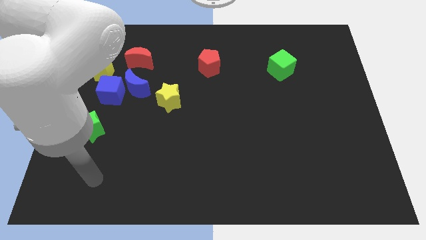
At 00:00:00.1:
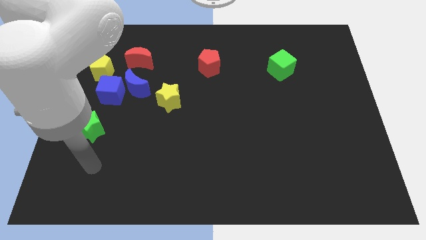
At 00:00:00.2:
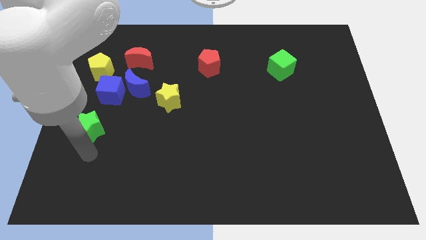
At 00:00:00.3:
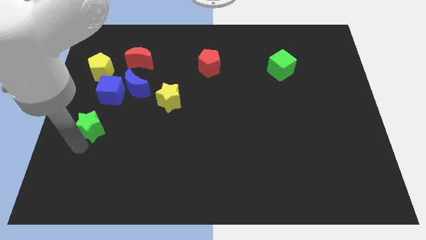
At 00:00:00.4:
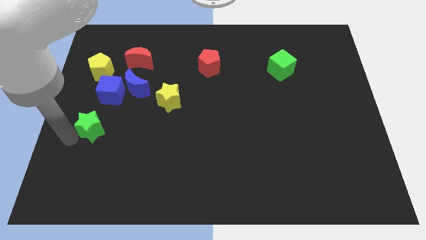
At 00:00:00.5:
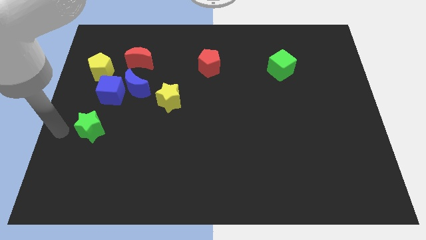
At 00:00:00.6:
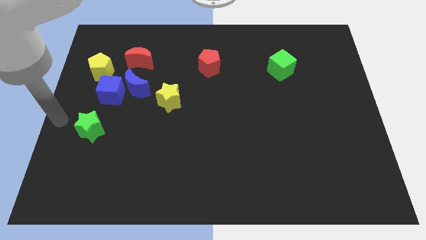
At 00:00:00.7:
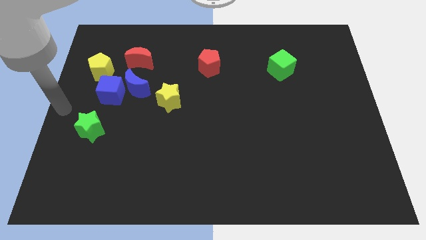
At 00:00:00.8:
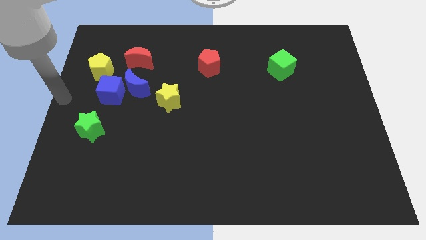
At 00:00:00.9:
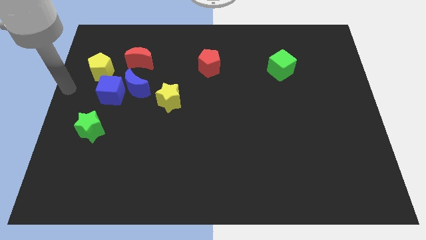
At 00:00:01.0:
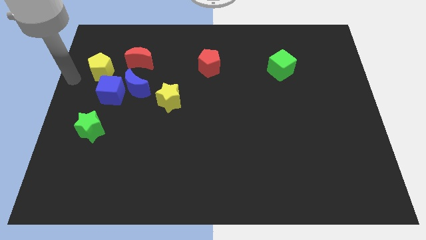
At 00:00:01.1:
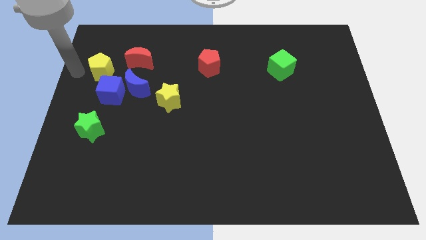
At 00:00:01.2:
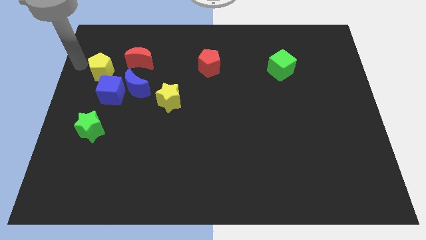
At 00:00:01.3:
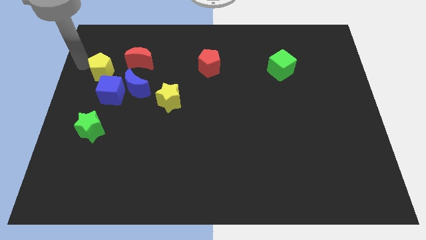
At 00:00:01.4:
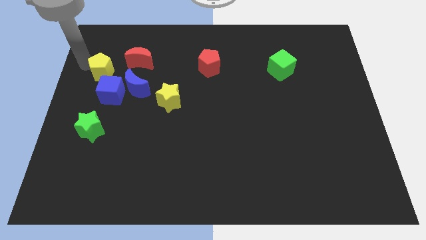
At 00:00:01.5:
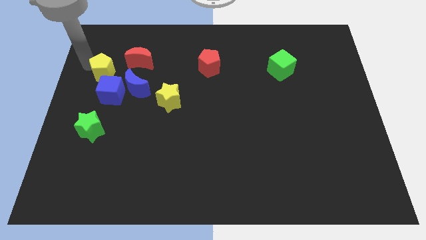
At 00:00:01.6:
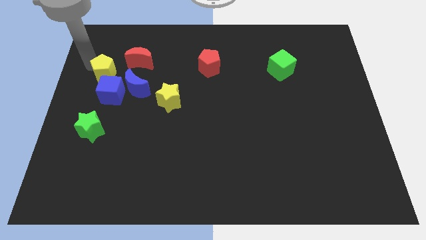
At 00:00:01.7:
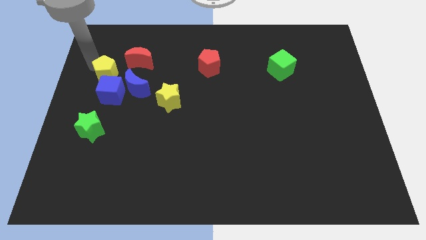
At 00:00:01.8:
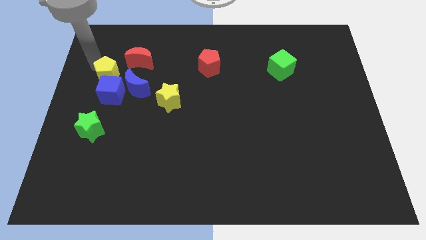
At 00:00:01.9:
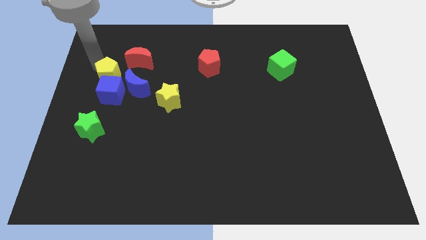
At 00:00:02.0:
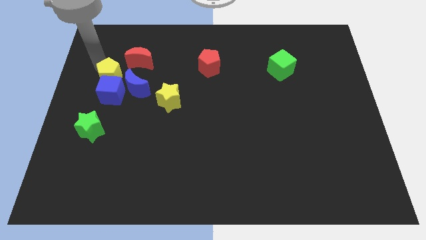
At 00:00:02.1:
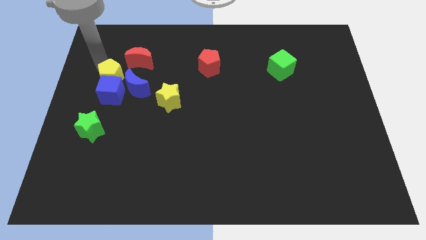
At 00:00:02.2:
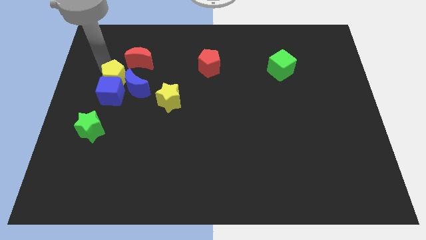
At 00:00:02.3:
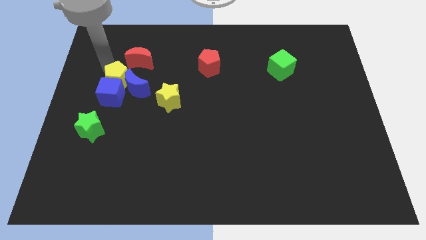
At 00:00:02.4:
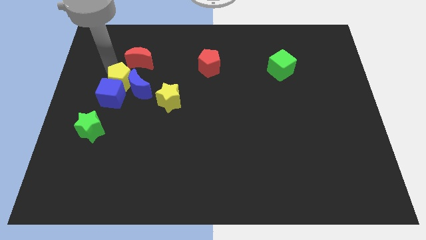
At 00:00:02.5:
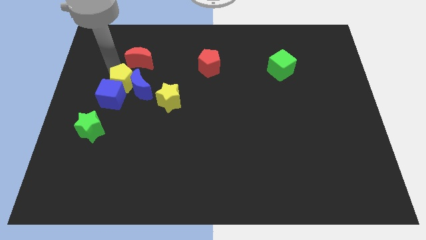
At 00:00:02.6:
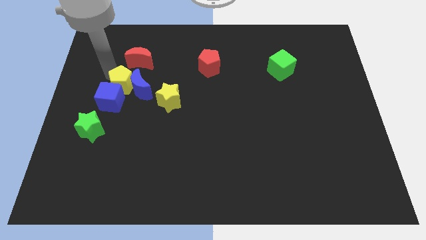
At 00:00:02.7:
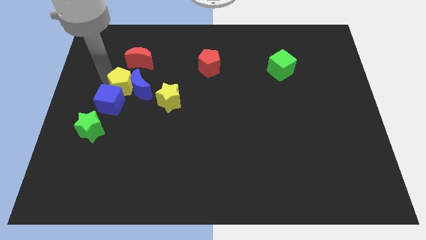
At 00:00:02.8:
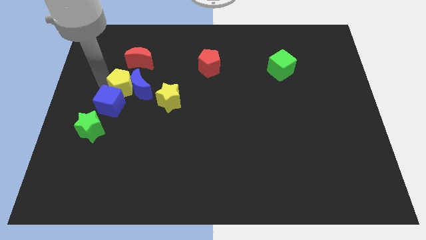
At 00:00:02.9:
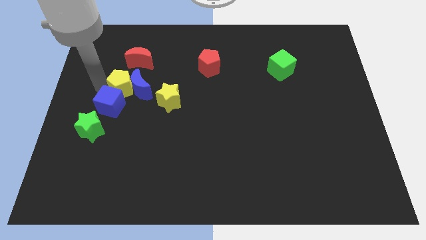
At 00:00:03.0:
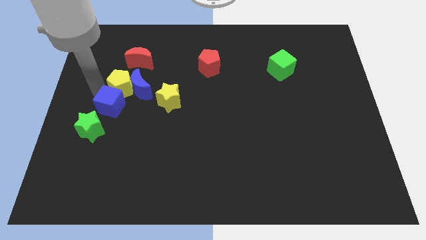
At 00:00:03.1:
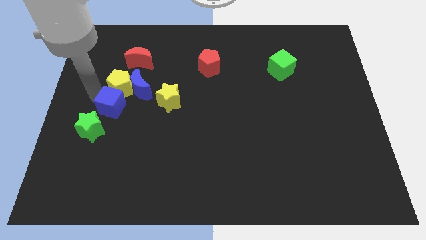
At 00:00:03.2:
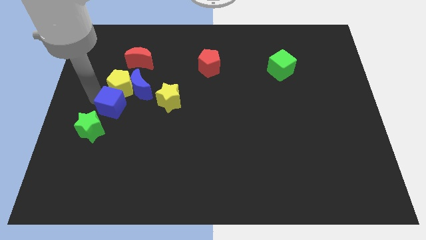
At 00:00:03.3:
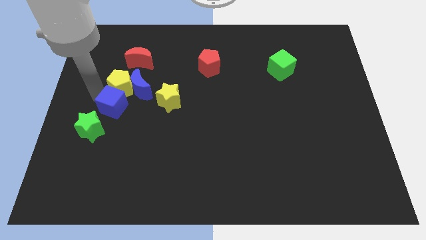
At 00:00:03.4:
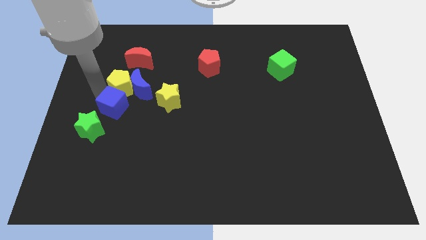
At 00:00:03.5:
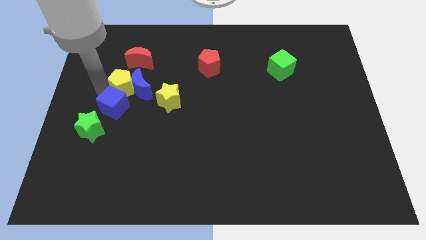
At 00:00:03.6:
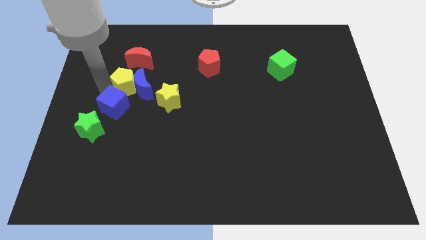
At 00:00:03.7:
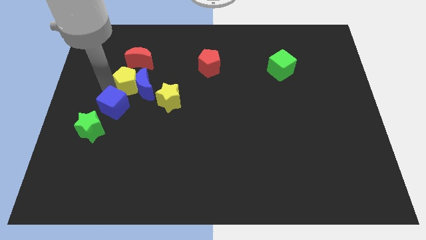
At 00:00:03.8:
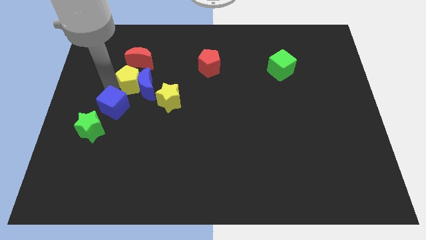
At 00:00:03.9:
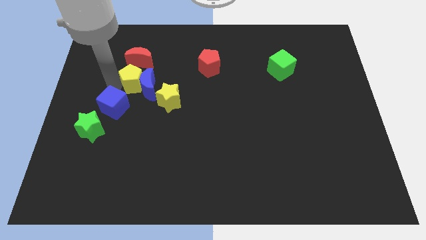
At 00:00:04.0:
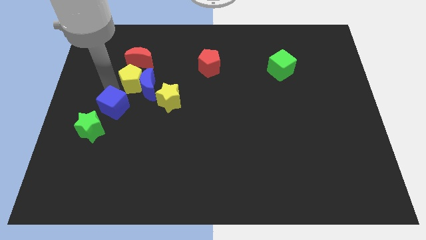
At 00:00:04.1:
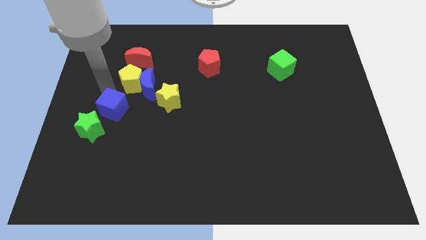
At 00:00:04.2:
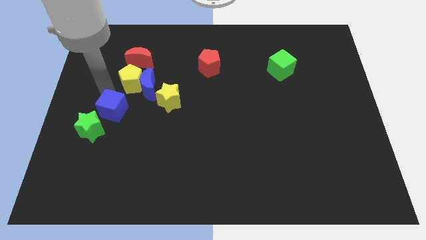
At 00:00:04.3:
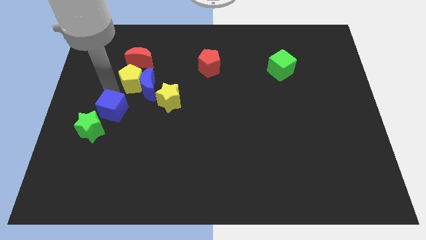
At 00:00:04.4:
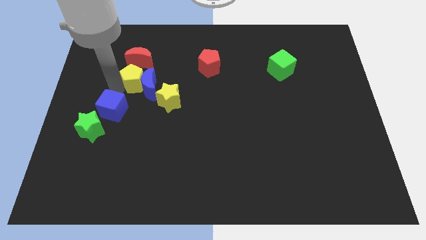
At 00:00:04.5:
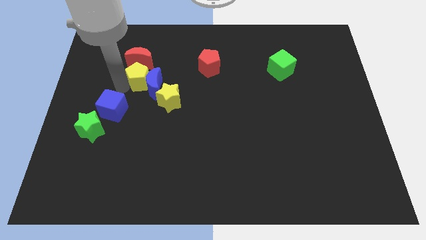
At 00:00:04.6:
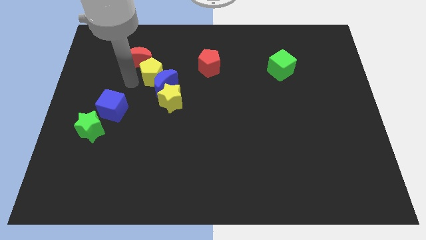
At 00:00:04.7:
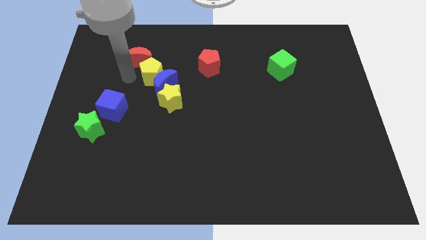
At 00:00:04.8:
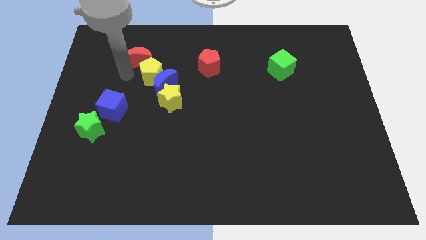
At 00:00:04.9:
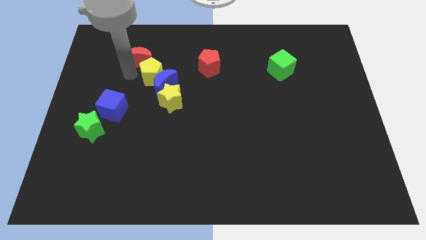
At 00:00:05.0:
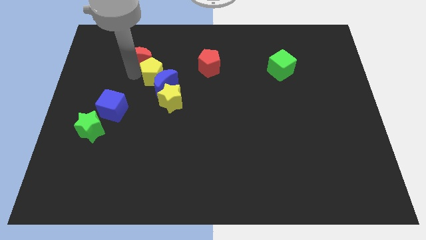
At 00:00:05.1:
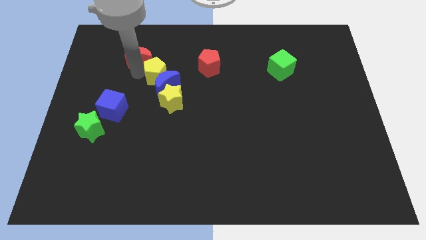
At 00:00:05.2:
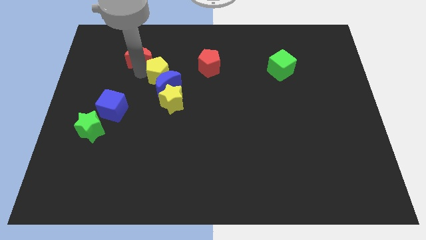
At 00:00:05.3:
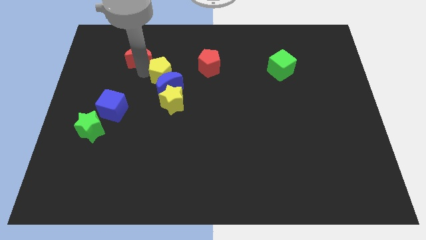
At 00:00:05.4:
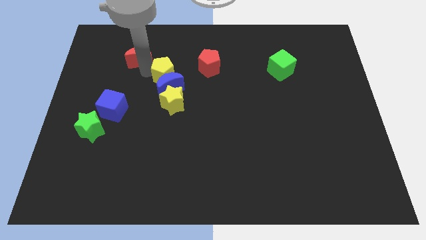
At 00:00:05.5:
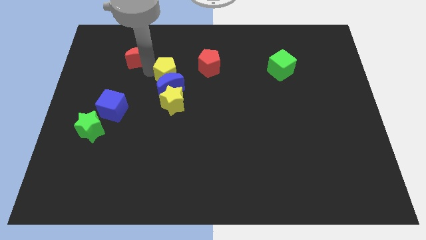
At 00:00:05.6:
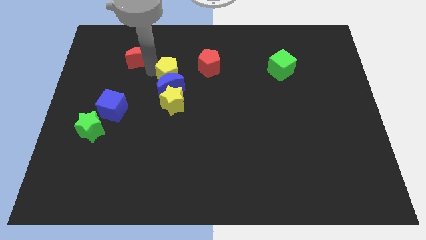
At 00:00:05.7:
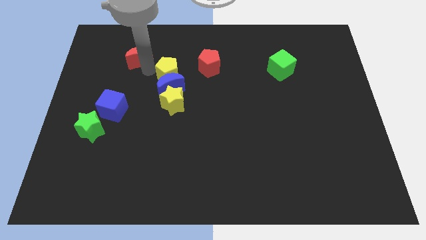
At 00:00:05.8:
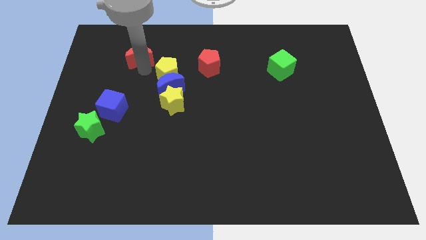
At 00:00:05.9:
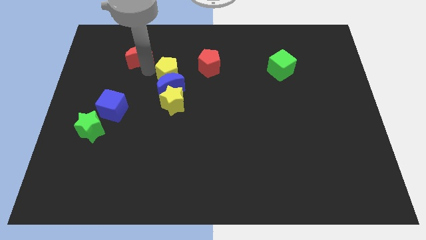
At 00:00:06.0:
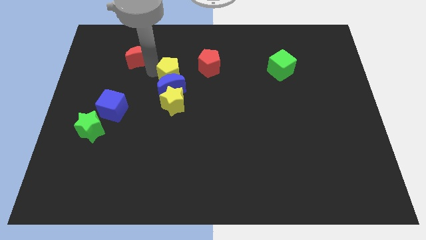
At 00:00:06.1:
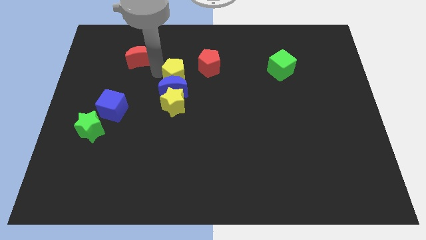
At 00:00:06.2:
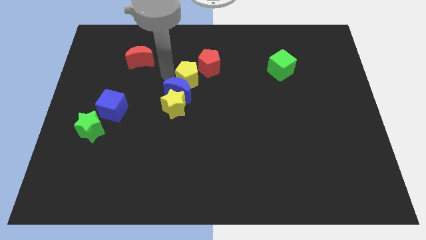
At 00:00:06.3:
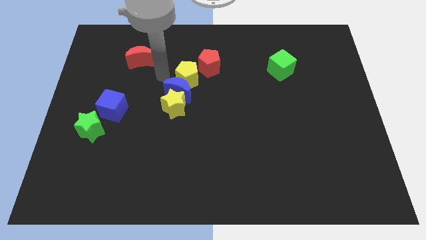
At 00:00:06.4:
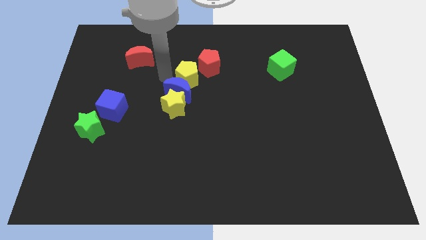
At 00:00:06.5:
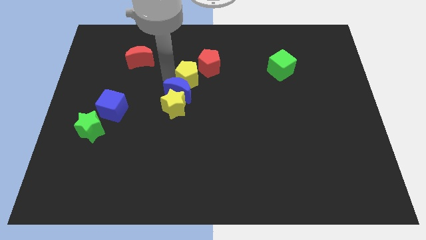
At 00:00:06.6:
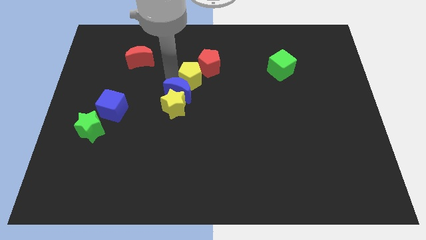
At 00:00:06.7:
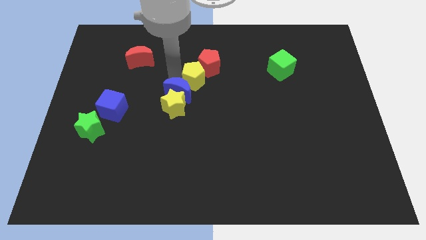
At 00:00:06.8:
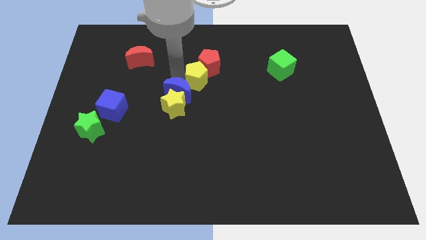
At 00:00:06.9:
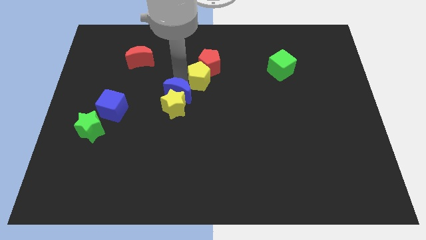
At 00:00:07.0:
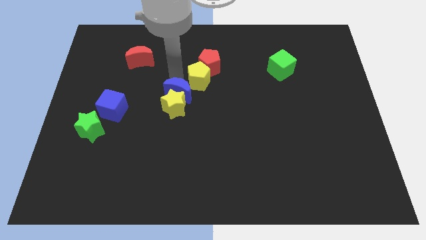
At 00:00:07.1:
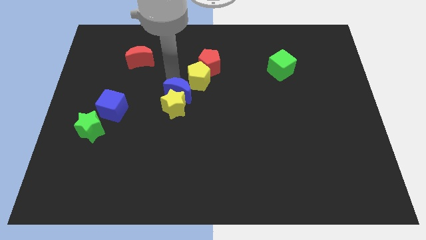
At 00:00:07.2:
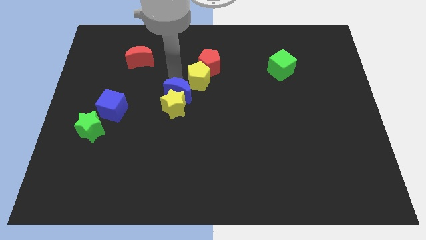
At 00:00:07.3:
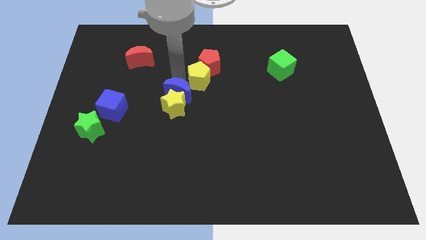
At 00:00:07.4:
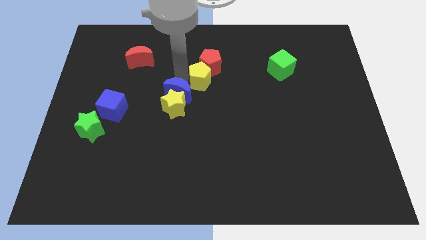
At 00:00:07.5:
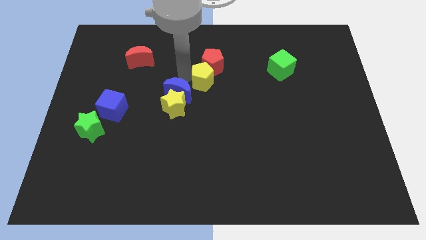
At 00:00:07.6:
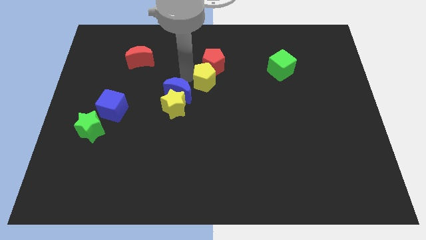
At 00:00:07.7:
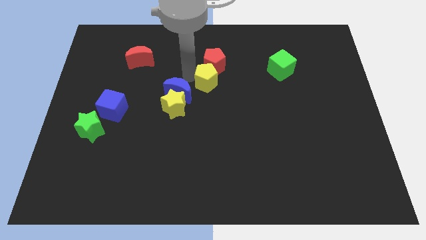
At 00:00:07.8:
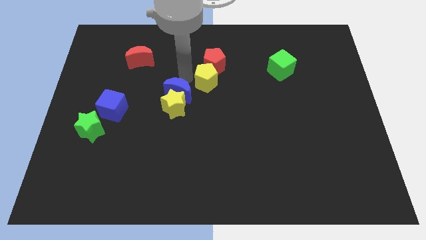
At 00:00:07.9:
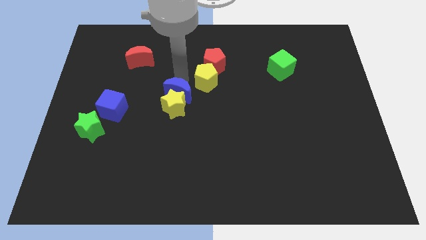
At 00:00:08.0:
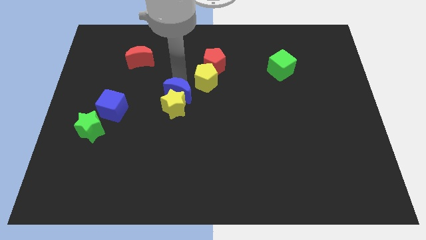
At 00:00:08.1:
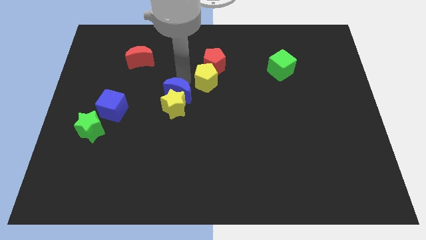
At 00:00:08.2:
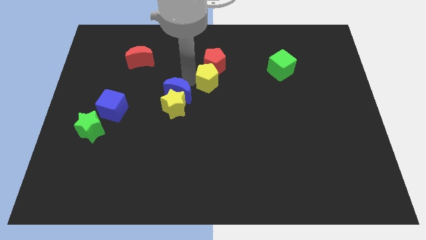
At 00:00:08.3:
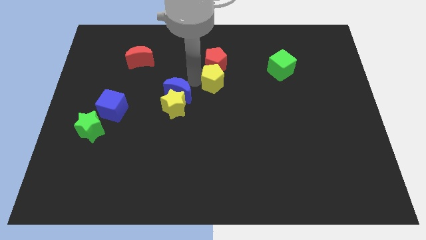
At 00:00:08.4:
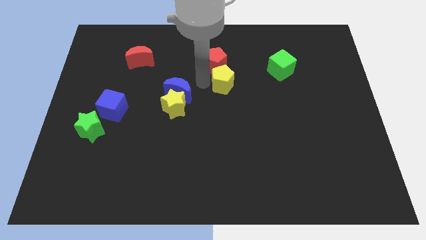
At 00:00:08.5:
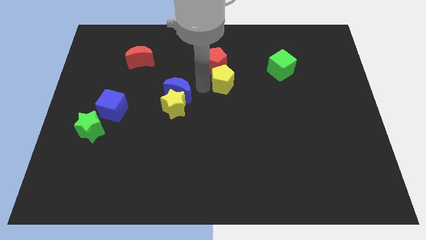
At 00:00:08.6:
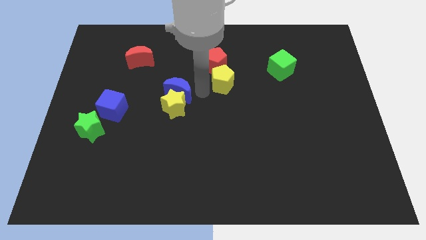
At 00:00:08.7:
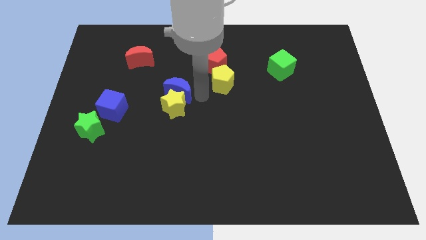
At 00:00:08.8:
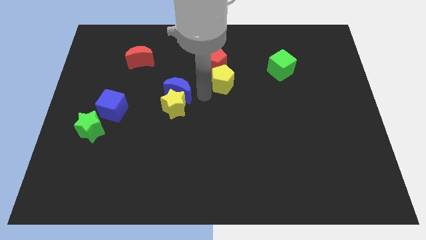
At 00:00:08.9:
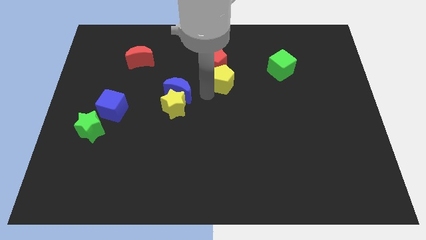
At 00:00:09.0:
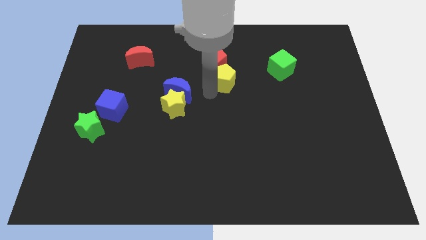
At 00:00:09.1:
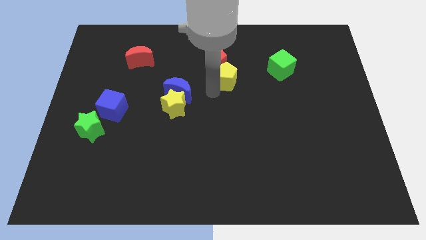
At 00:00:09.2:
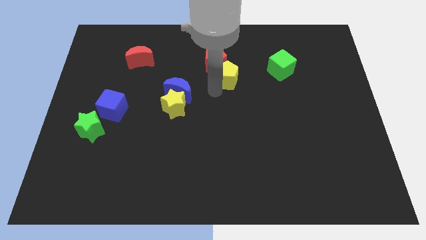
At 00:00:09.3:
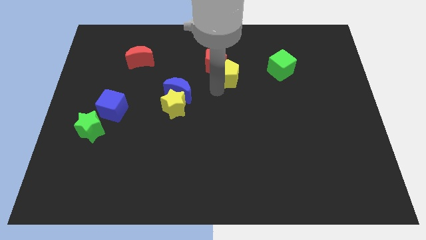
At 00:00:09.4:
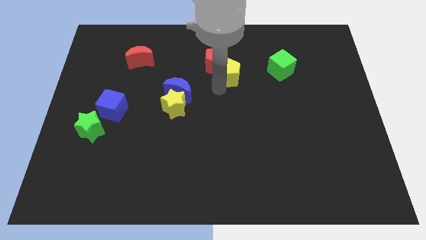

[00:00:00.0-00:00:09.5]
move the yellow pentagon to the right of the red pentagon
